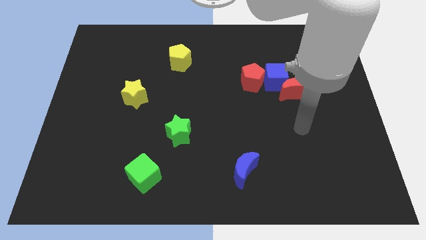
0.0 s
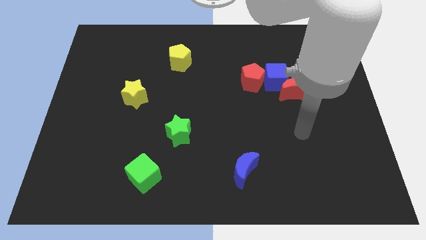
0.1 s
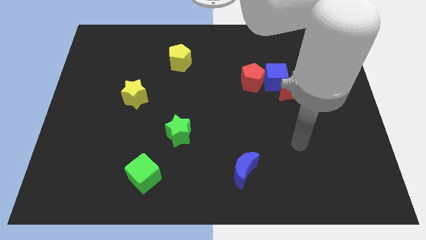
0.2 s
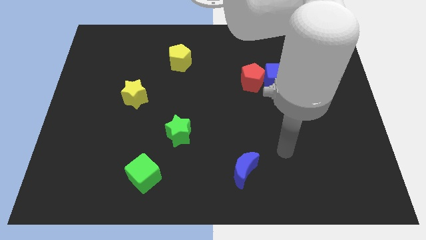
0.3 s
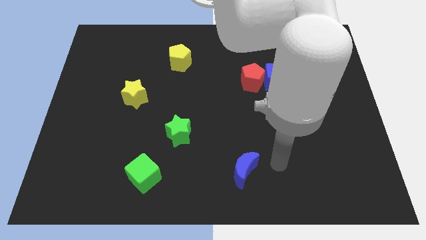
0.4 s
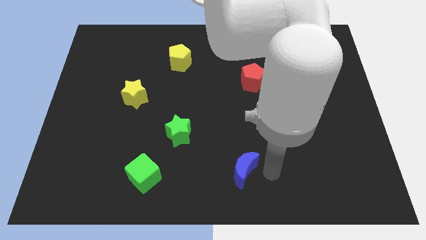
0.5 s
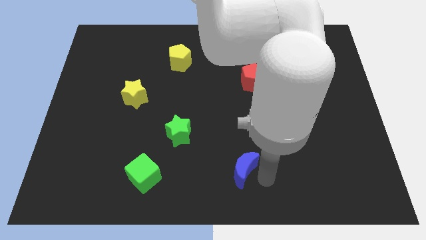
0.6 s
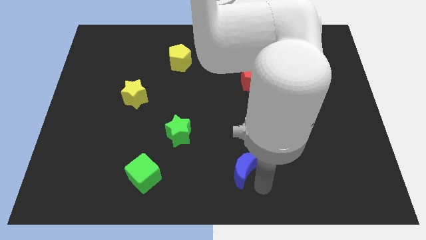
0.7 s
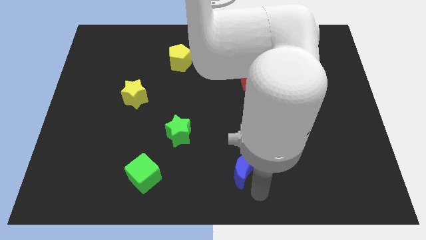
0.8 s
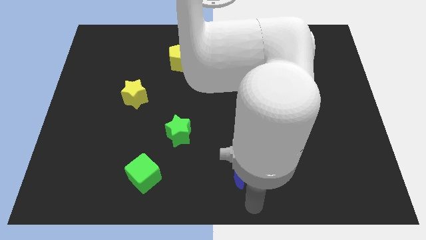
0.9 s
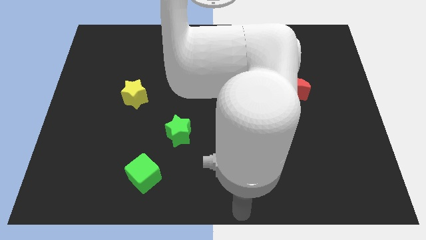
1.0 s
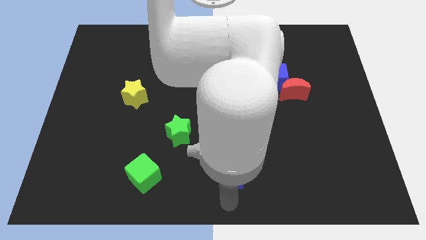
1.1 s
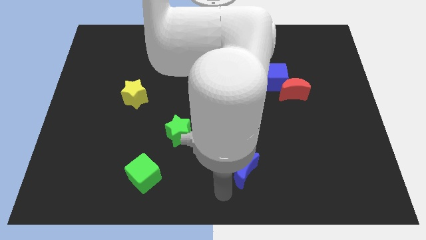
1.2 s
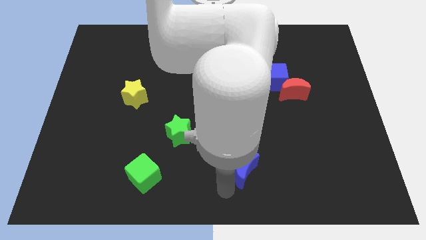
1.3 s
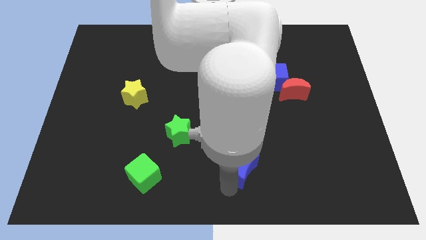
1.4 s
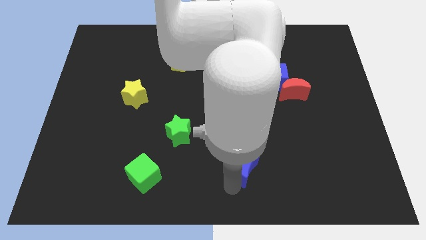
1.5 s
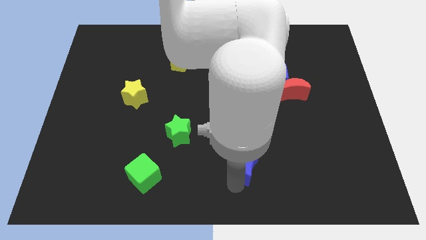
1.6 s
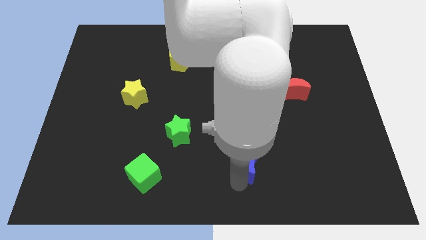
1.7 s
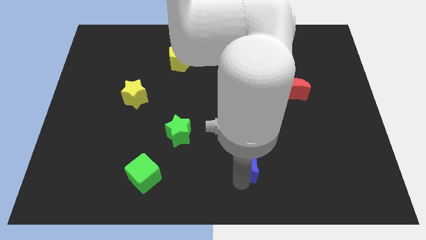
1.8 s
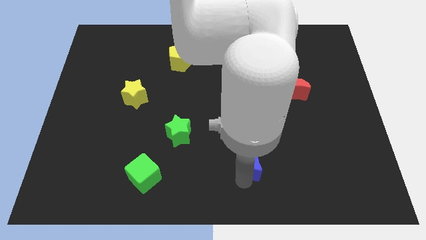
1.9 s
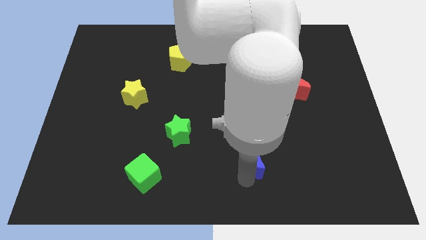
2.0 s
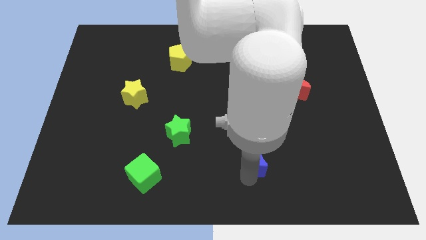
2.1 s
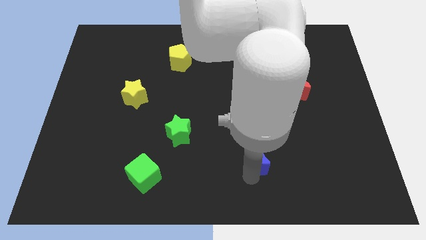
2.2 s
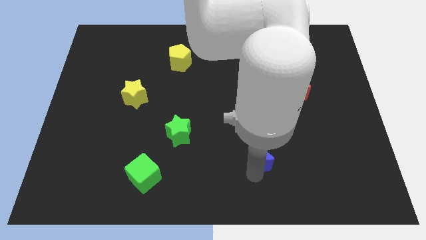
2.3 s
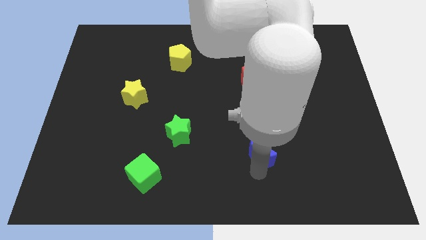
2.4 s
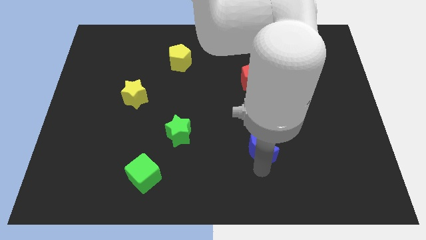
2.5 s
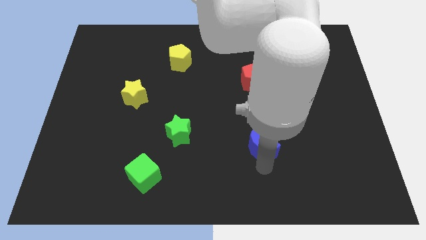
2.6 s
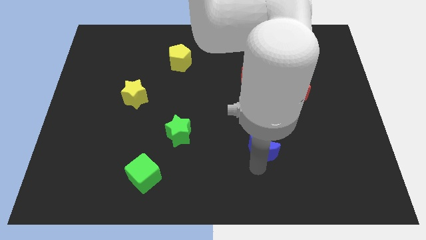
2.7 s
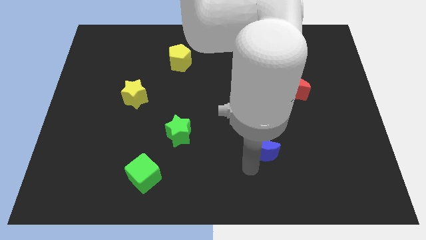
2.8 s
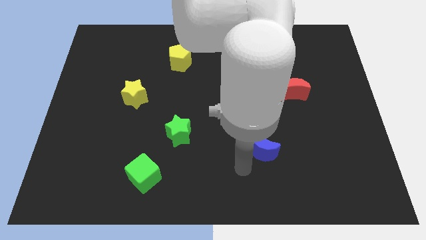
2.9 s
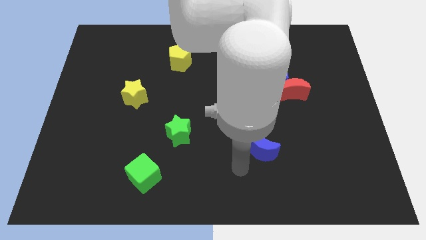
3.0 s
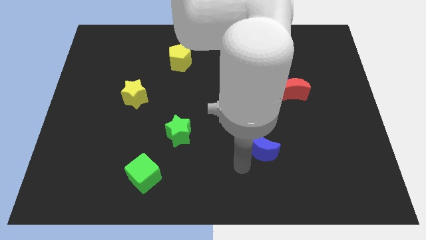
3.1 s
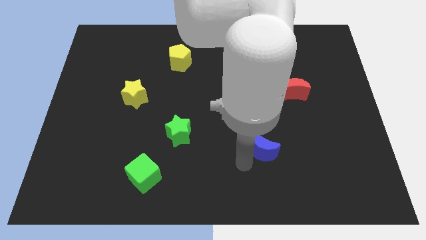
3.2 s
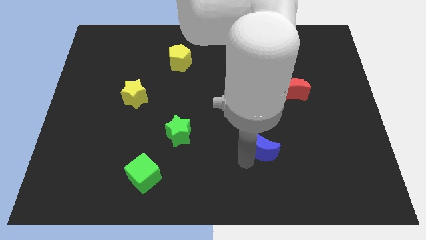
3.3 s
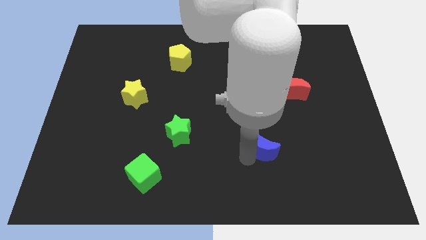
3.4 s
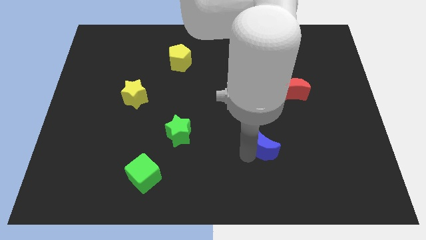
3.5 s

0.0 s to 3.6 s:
push the blue moon up and right somewhat

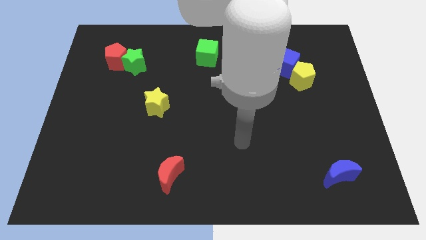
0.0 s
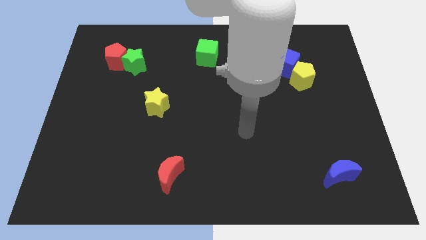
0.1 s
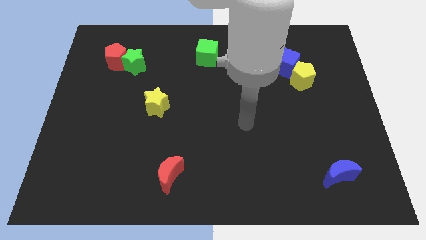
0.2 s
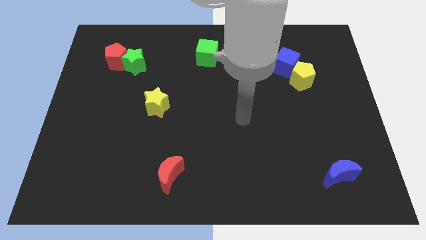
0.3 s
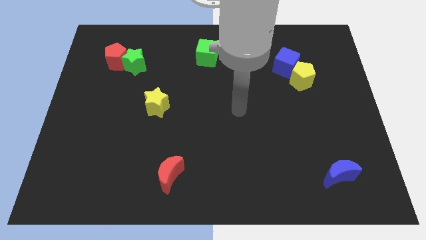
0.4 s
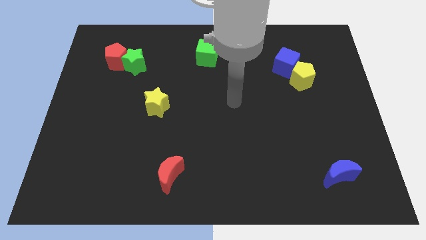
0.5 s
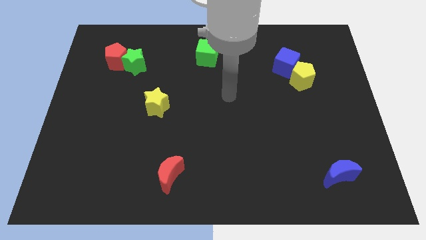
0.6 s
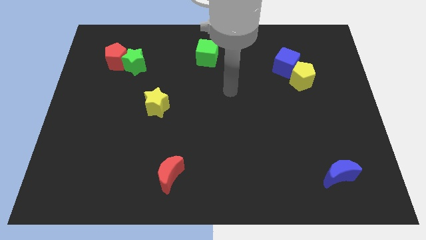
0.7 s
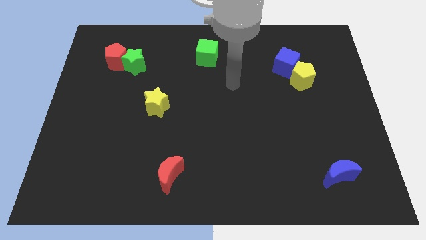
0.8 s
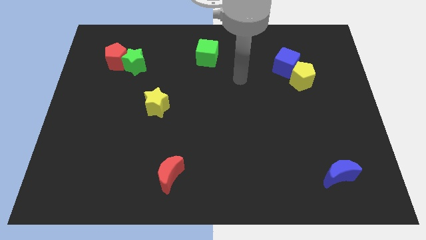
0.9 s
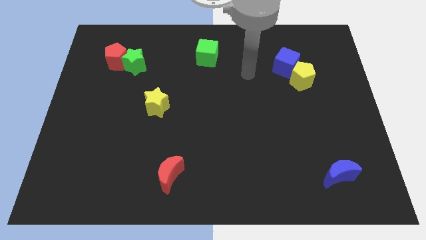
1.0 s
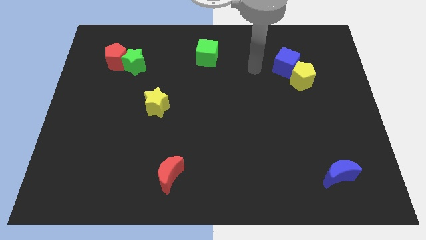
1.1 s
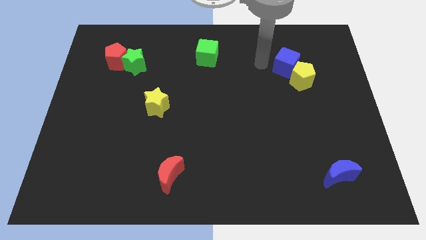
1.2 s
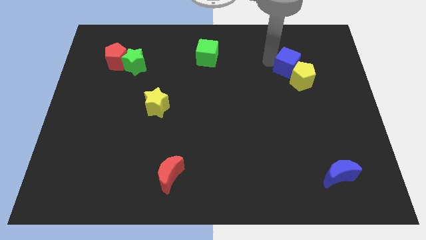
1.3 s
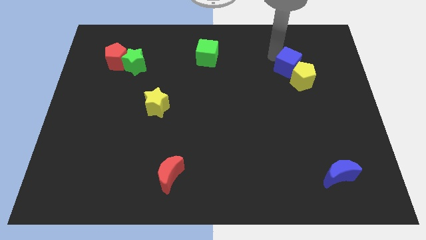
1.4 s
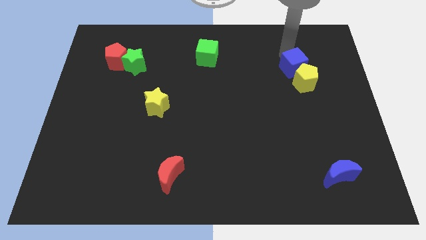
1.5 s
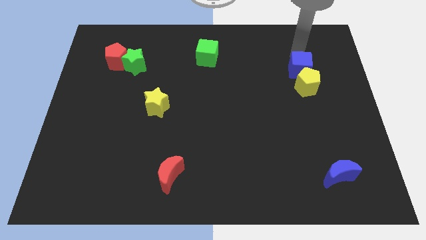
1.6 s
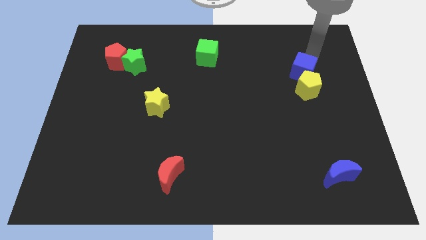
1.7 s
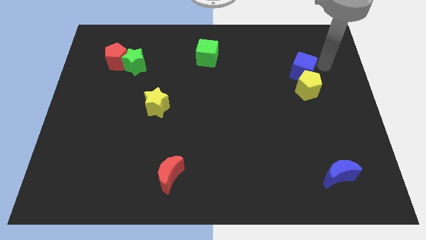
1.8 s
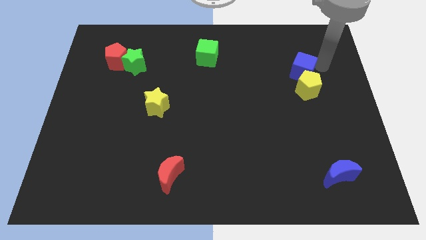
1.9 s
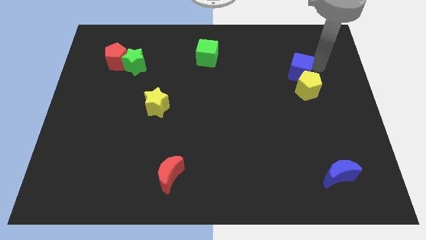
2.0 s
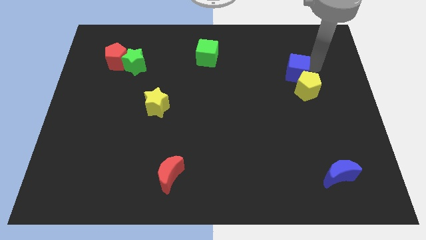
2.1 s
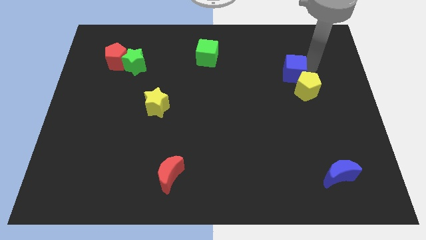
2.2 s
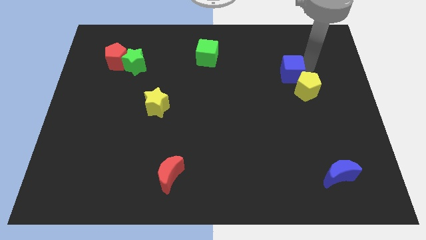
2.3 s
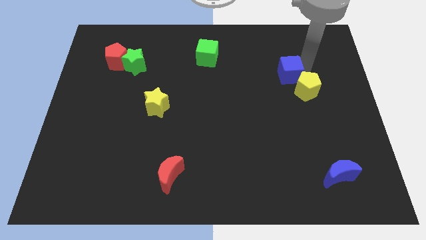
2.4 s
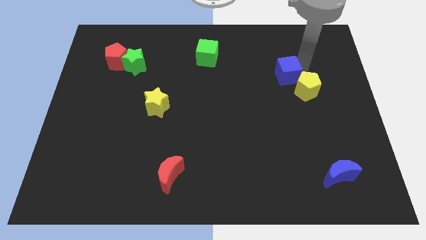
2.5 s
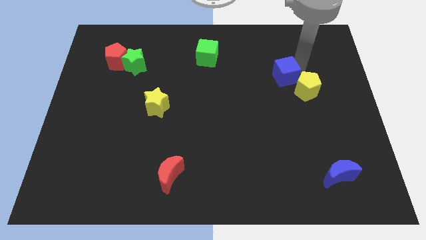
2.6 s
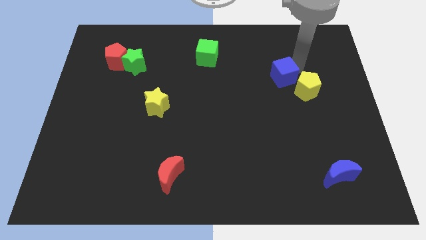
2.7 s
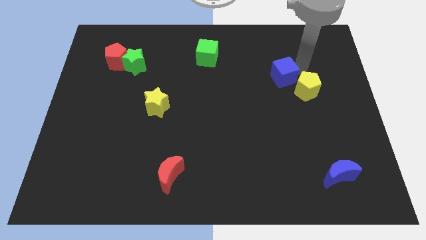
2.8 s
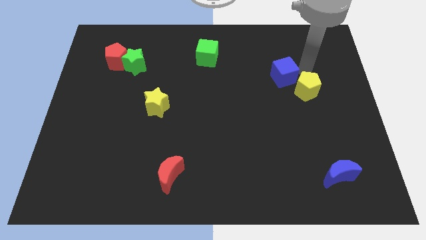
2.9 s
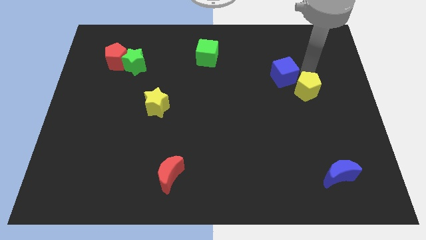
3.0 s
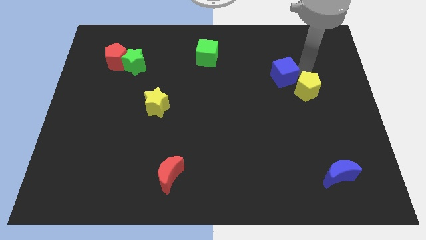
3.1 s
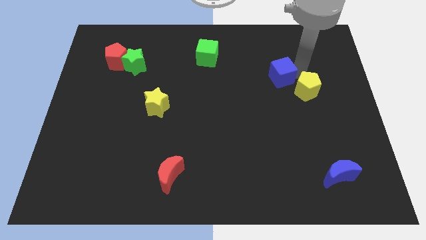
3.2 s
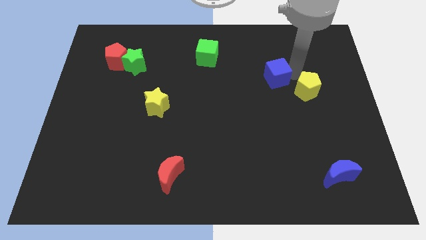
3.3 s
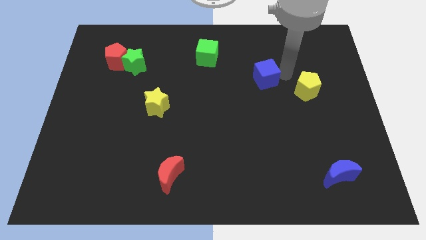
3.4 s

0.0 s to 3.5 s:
slightly move the blue cube downwards and left

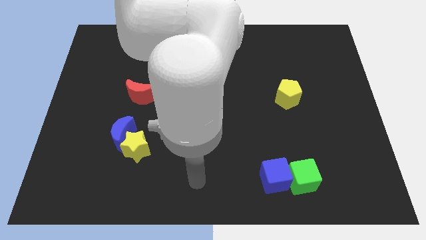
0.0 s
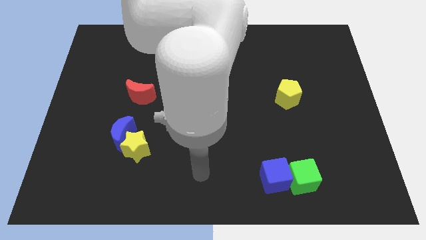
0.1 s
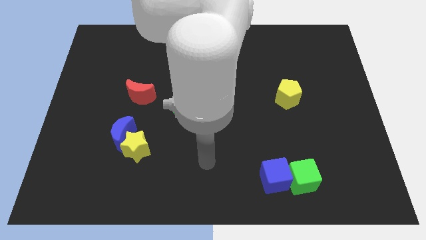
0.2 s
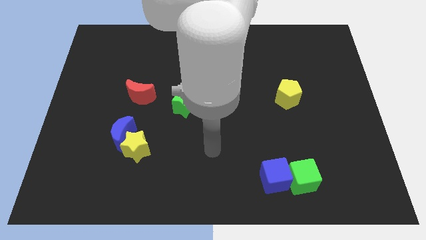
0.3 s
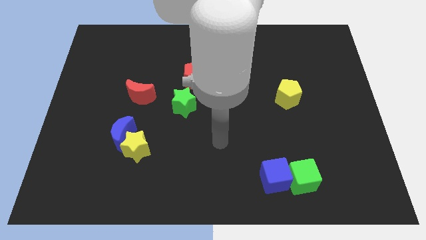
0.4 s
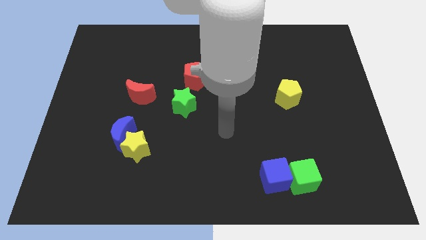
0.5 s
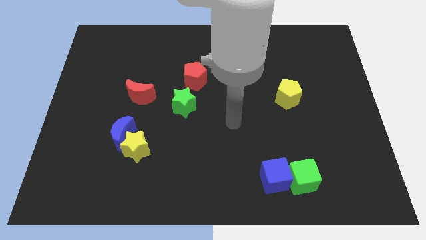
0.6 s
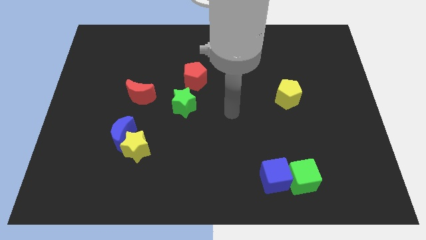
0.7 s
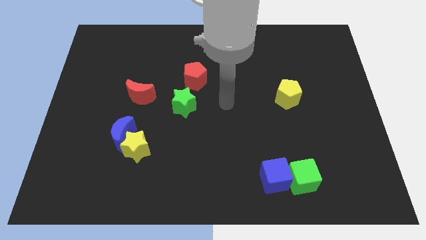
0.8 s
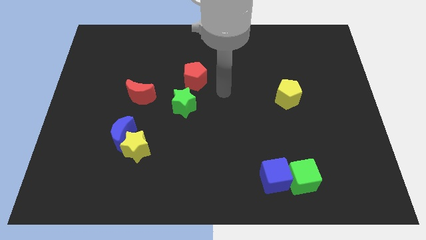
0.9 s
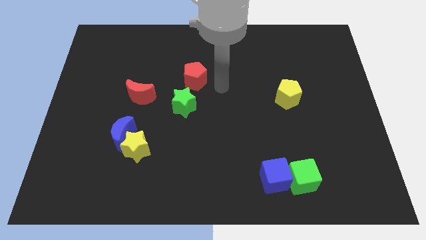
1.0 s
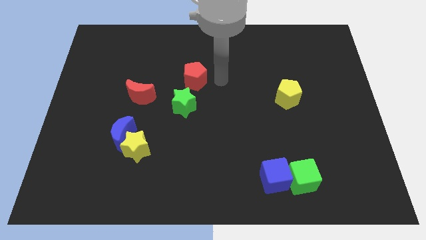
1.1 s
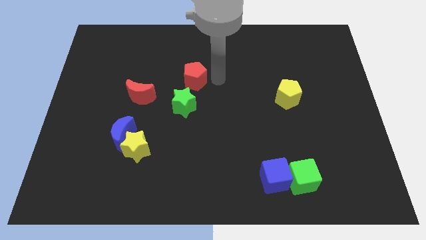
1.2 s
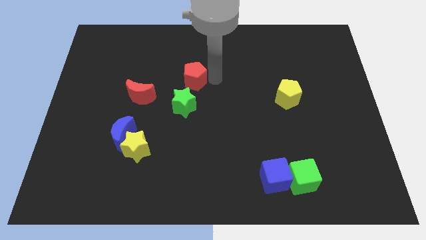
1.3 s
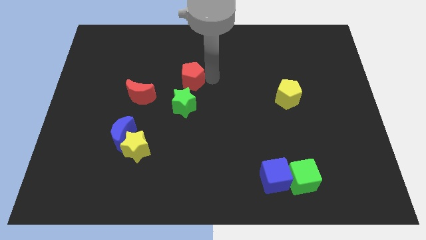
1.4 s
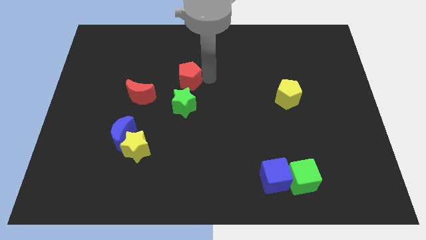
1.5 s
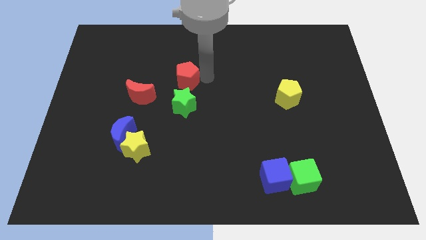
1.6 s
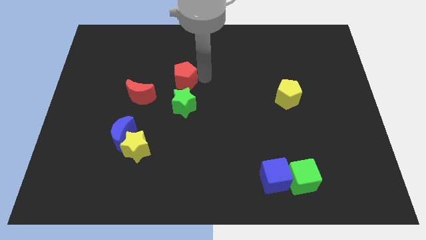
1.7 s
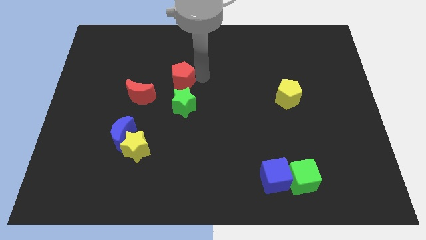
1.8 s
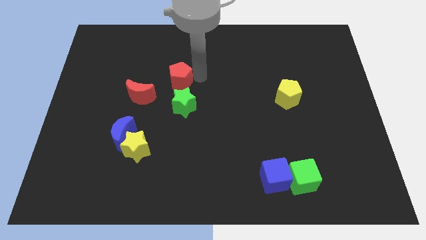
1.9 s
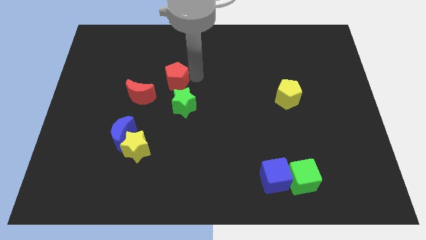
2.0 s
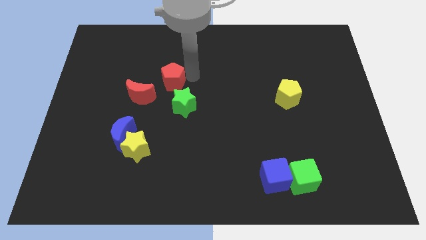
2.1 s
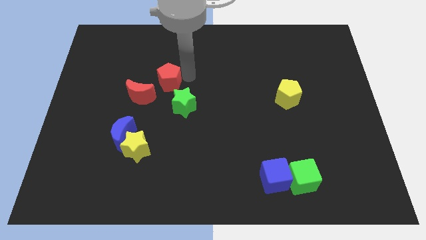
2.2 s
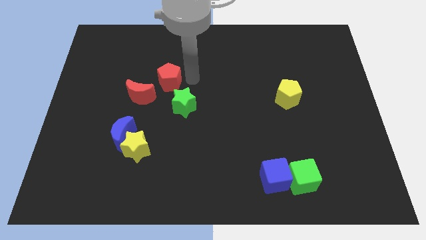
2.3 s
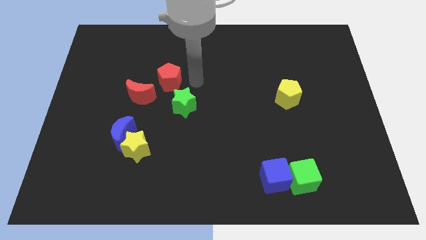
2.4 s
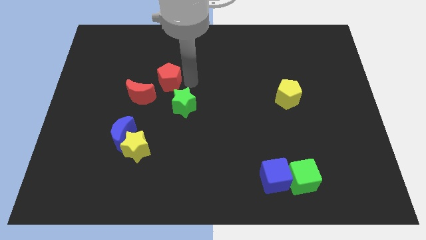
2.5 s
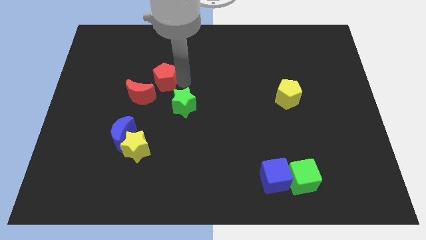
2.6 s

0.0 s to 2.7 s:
slightly move the red pentagon left
